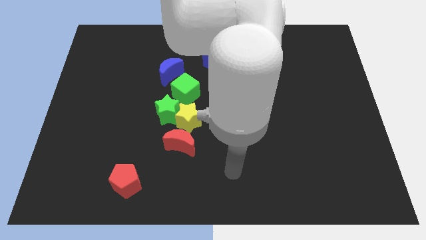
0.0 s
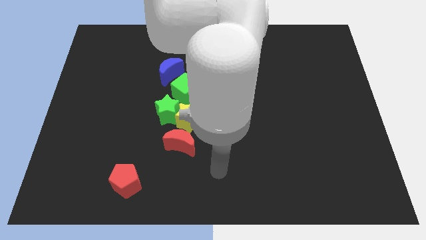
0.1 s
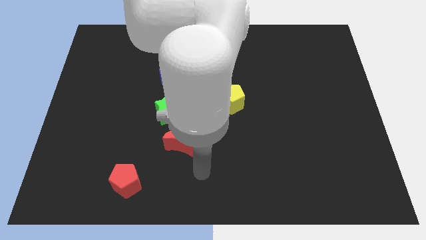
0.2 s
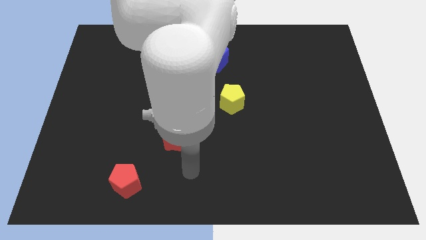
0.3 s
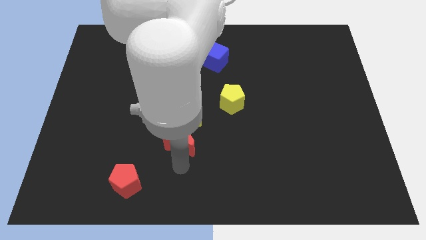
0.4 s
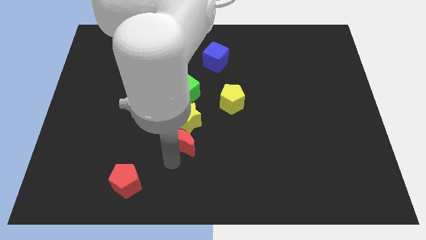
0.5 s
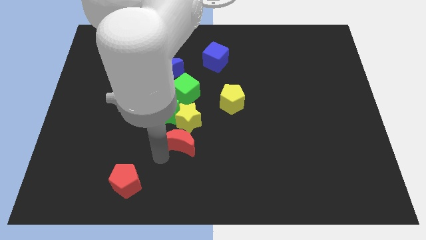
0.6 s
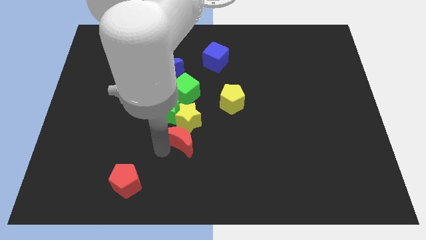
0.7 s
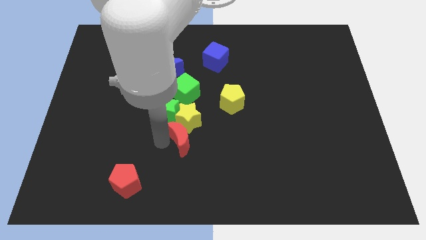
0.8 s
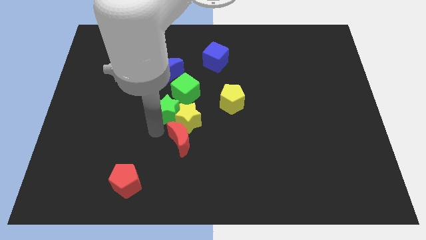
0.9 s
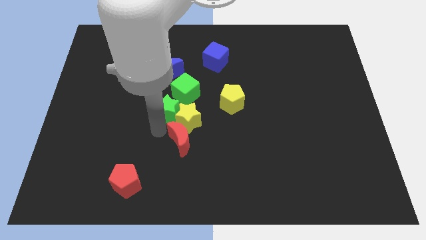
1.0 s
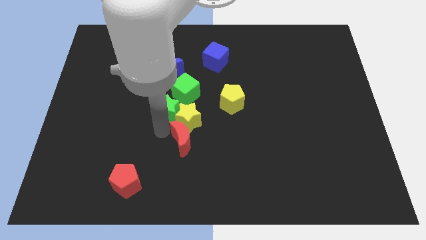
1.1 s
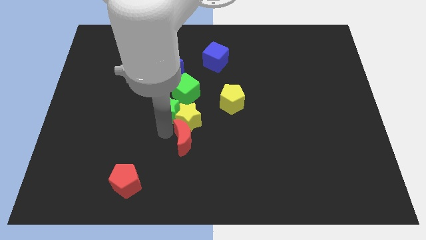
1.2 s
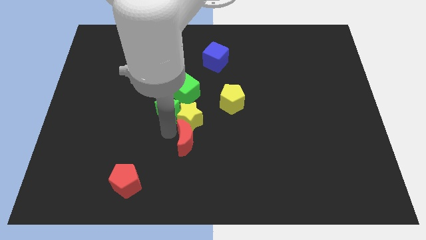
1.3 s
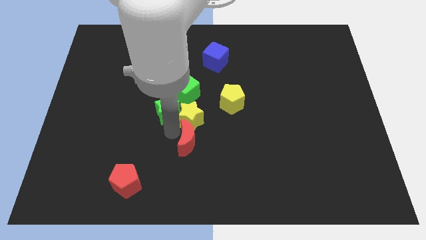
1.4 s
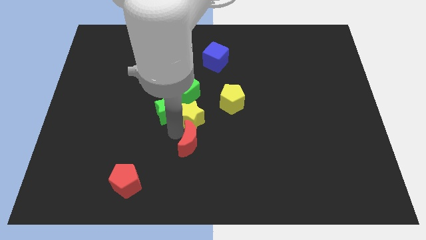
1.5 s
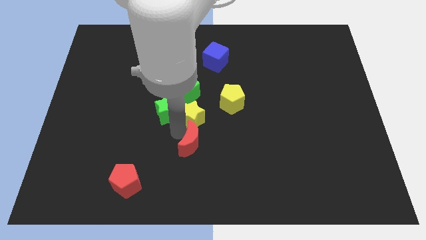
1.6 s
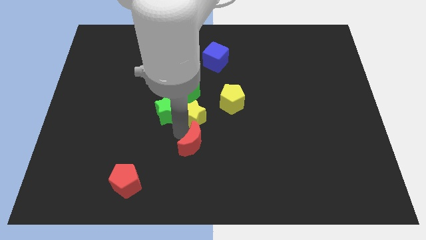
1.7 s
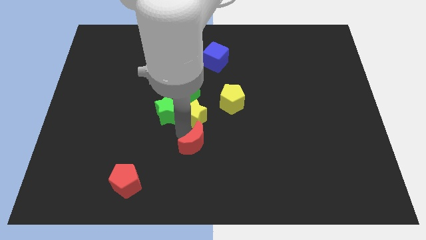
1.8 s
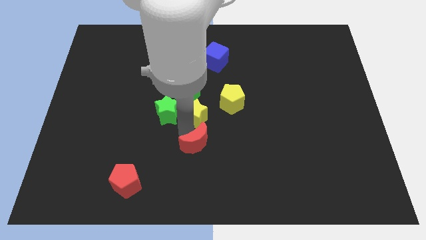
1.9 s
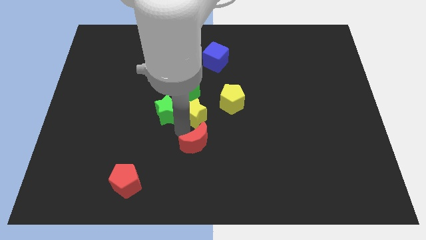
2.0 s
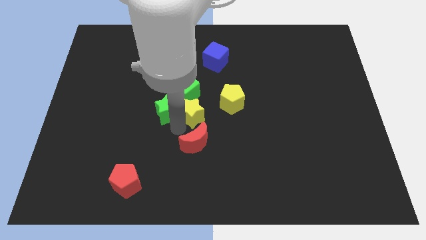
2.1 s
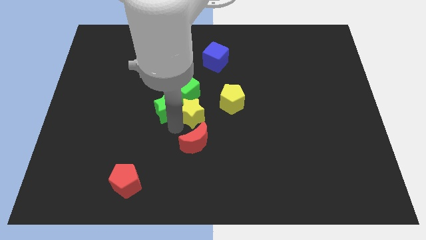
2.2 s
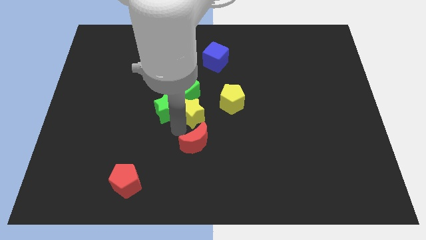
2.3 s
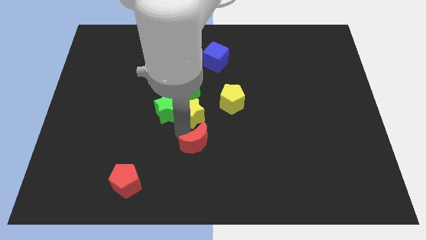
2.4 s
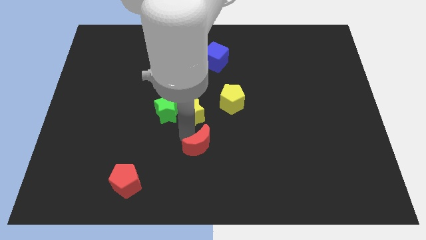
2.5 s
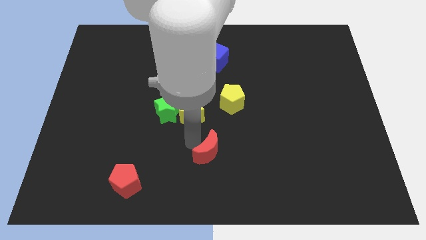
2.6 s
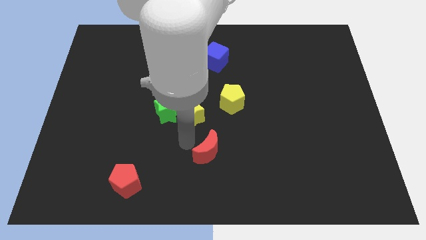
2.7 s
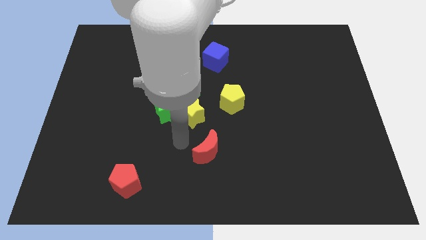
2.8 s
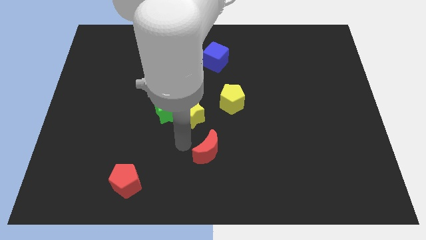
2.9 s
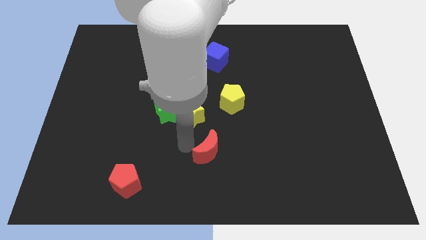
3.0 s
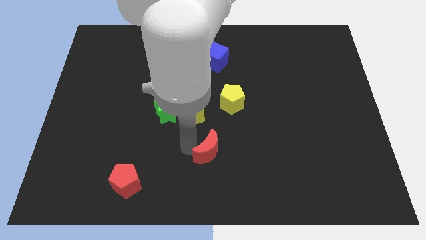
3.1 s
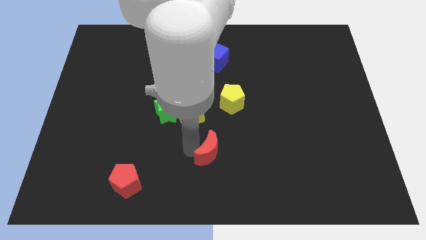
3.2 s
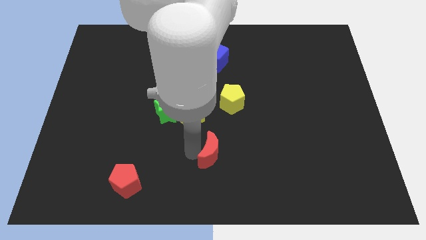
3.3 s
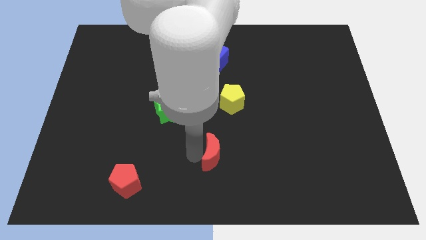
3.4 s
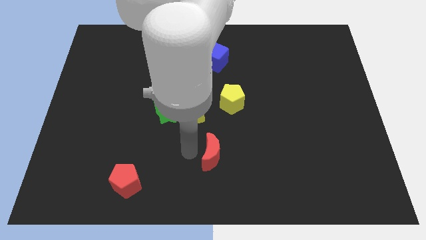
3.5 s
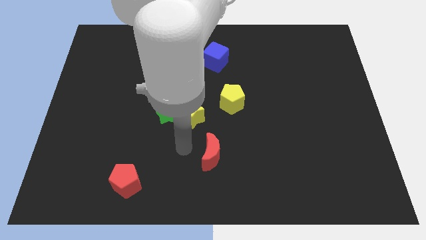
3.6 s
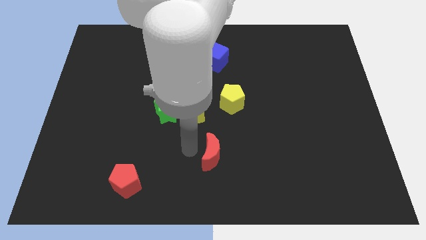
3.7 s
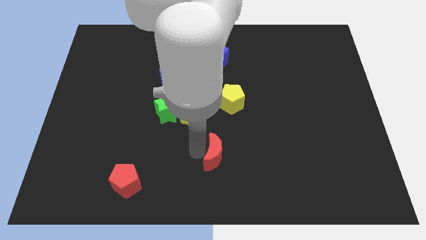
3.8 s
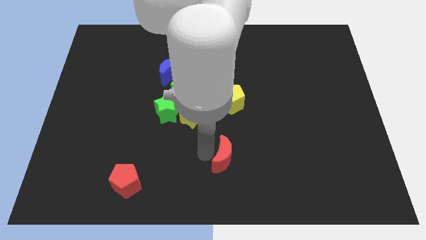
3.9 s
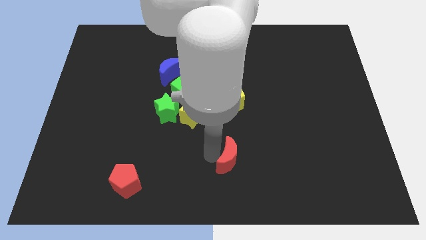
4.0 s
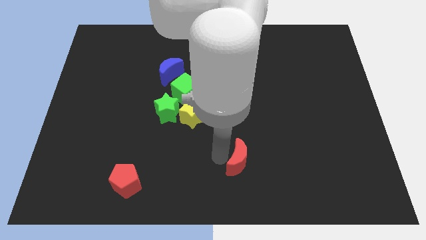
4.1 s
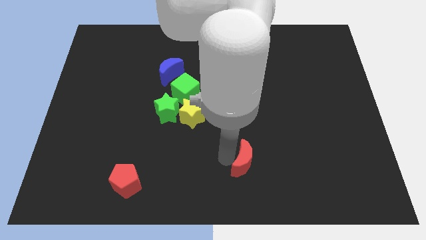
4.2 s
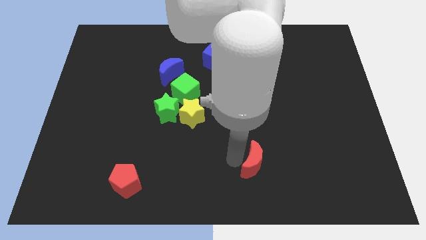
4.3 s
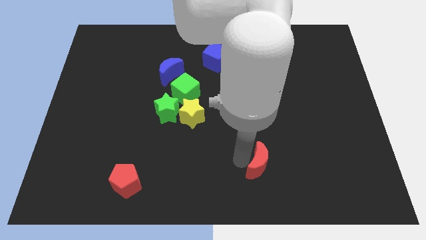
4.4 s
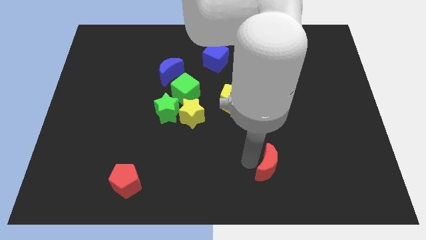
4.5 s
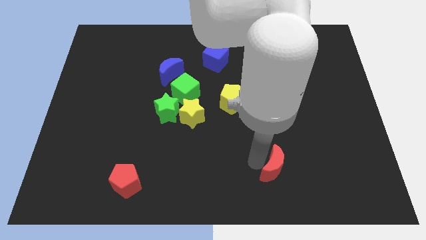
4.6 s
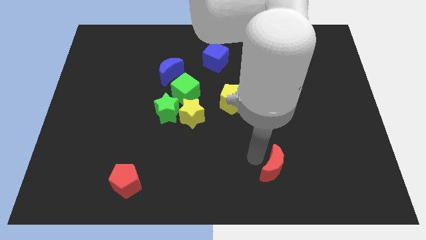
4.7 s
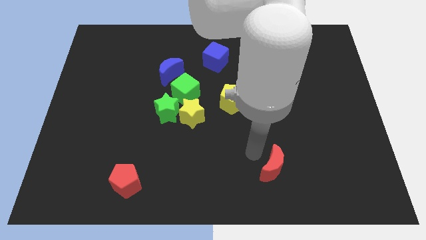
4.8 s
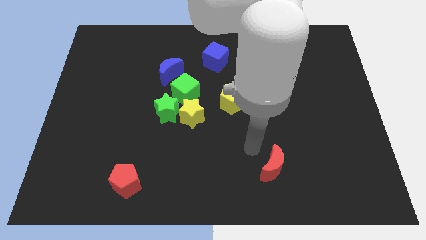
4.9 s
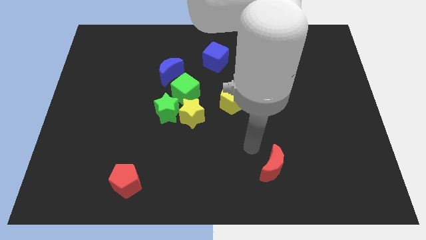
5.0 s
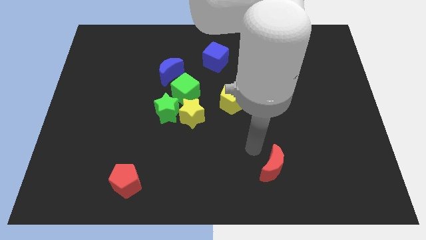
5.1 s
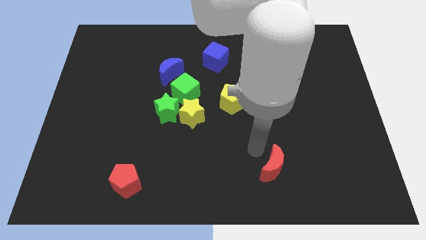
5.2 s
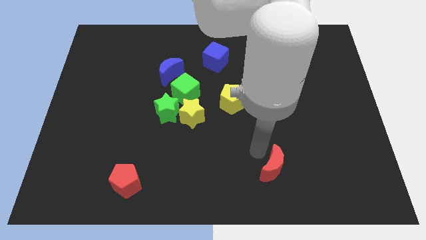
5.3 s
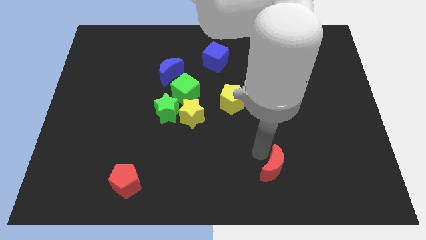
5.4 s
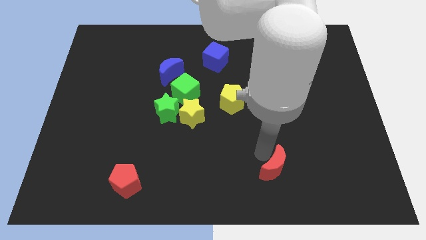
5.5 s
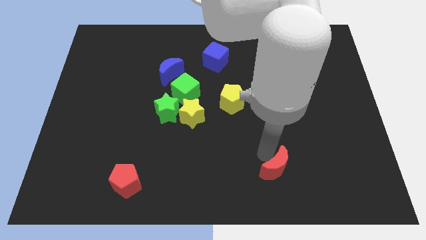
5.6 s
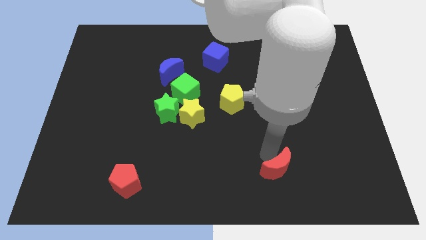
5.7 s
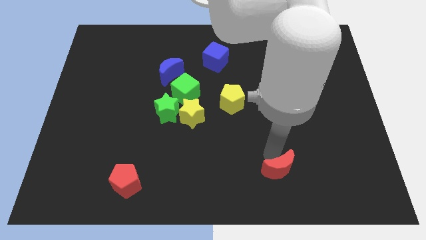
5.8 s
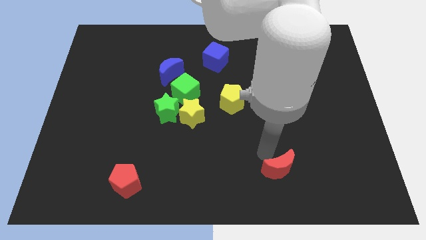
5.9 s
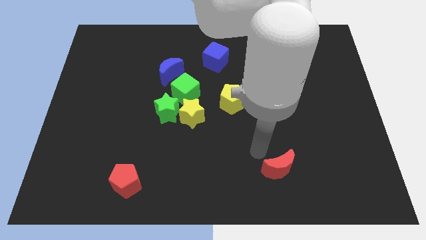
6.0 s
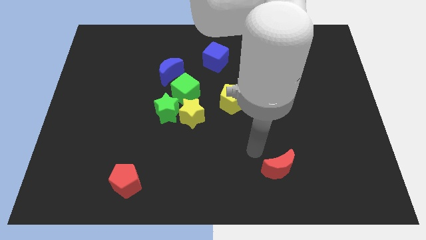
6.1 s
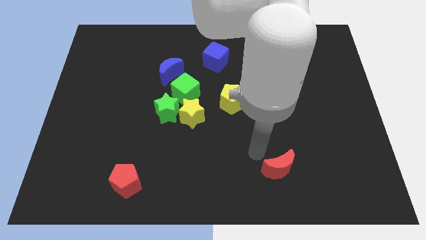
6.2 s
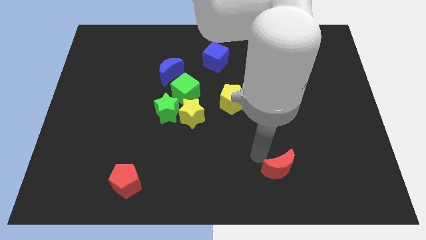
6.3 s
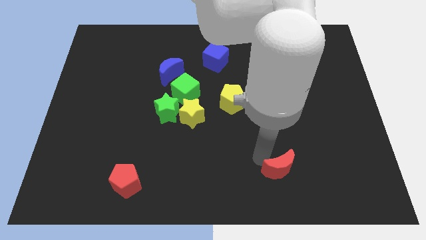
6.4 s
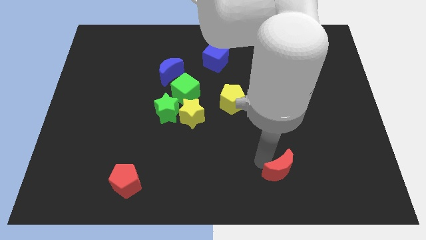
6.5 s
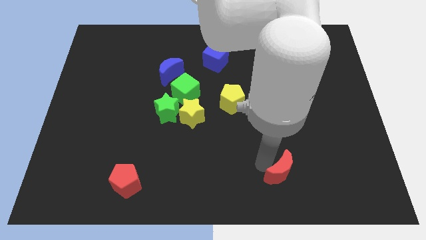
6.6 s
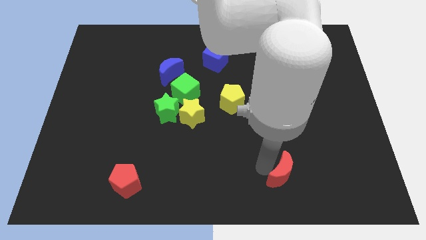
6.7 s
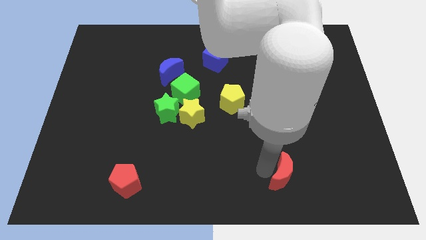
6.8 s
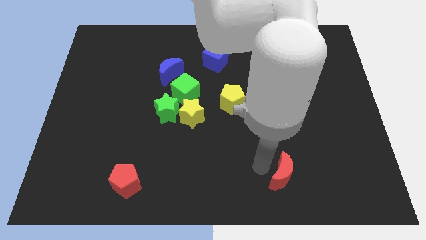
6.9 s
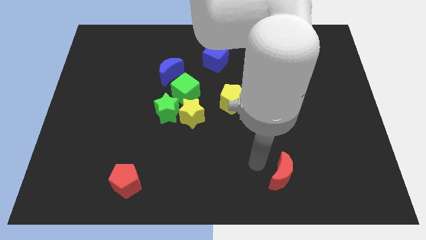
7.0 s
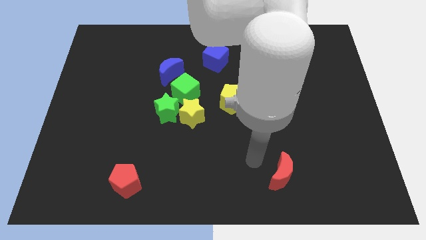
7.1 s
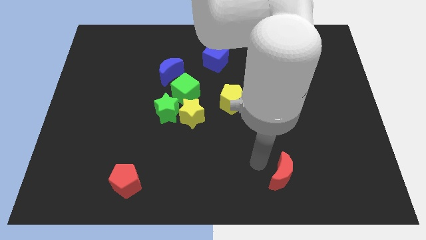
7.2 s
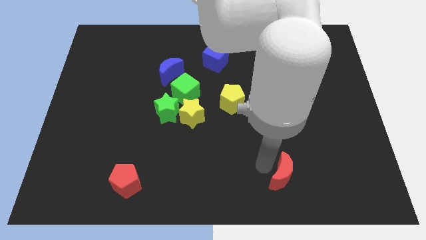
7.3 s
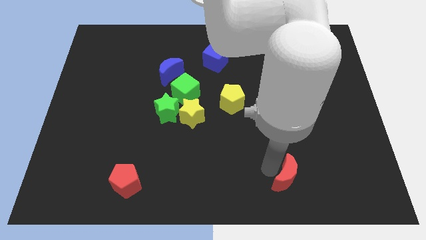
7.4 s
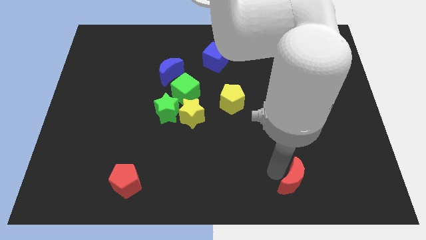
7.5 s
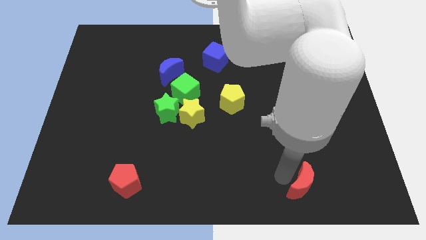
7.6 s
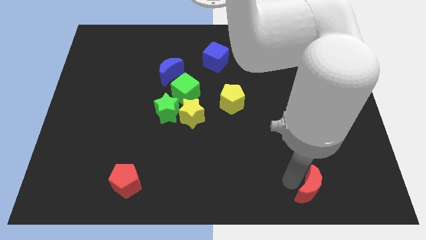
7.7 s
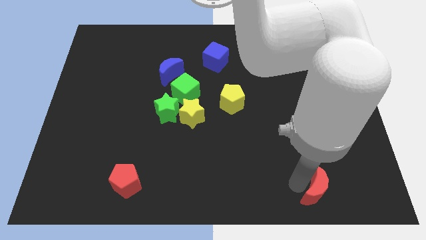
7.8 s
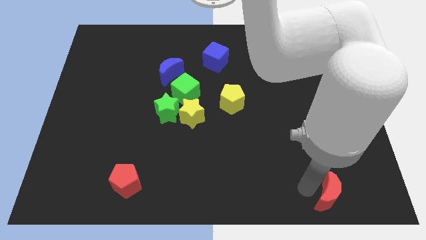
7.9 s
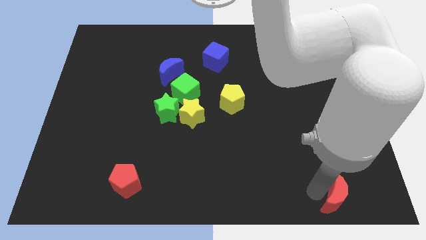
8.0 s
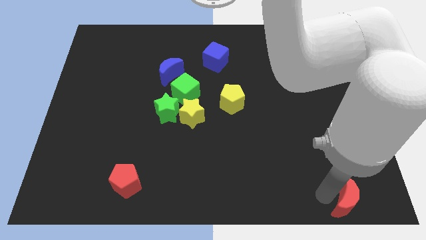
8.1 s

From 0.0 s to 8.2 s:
move the red moon to the lower right corner
